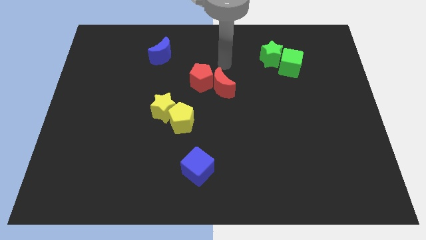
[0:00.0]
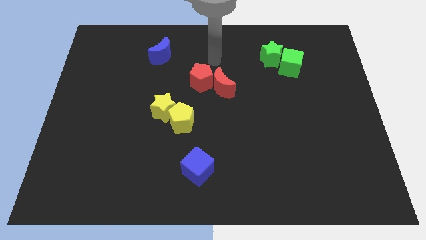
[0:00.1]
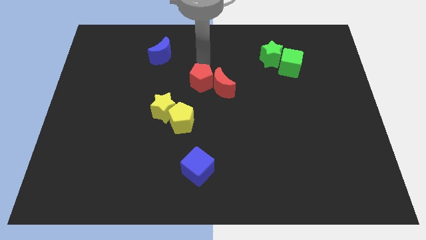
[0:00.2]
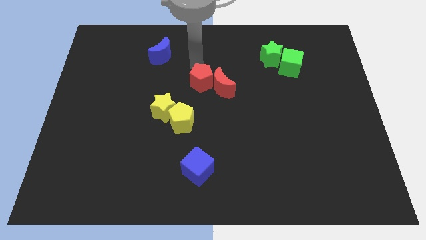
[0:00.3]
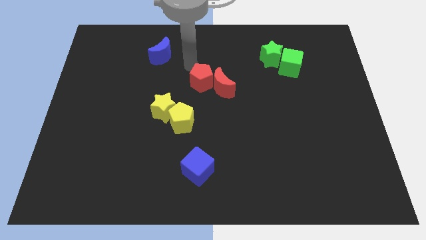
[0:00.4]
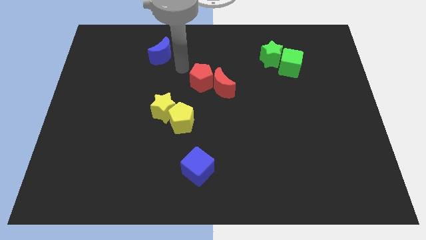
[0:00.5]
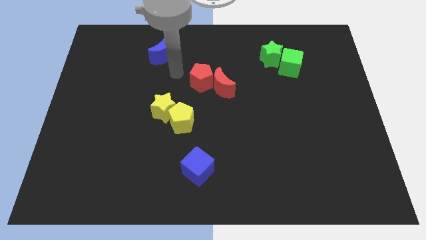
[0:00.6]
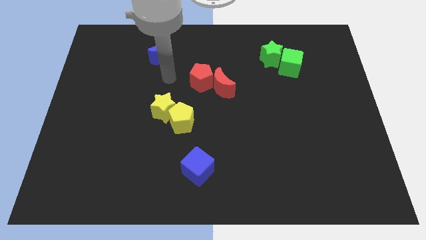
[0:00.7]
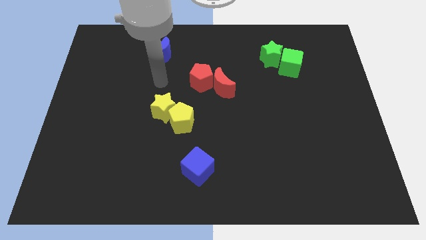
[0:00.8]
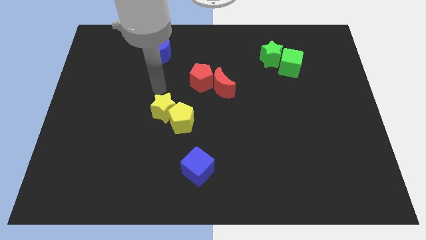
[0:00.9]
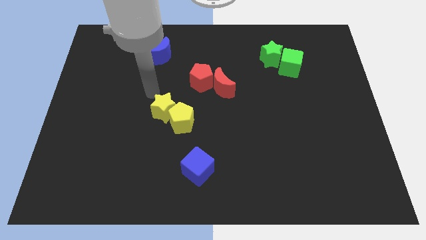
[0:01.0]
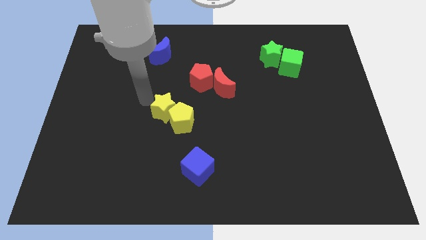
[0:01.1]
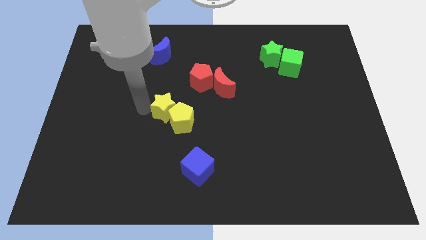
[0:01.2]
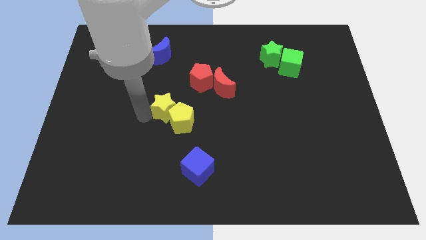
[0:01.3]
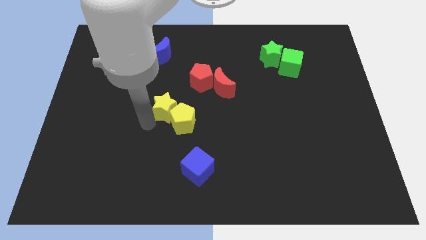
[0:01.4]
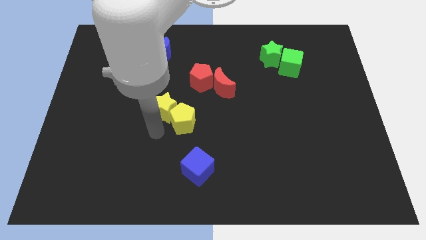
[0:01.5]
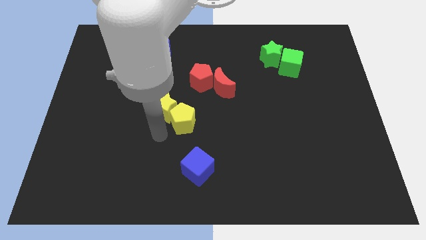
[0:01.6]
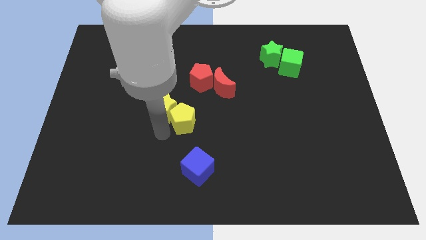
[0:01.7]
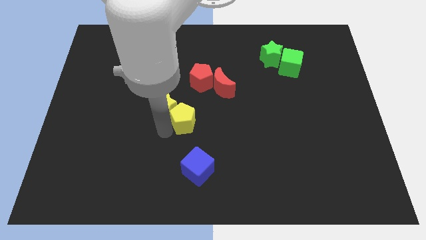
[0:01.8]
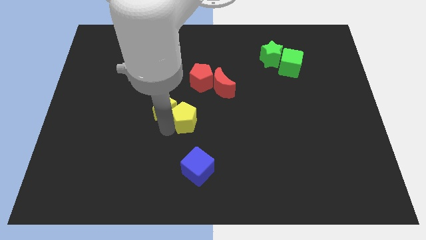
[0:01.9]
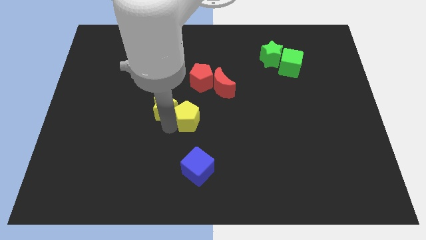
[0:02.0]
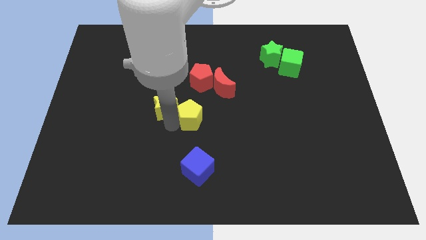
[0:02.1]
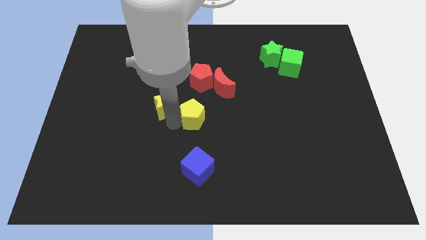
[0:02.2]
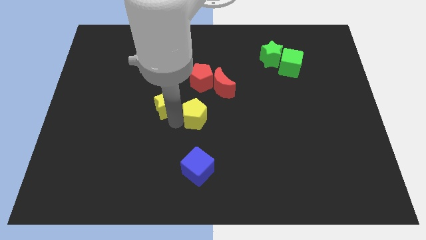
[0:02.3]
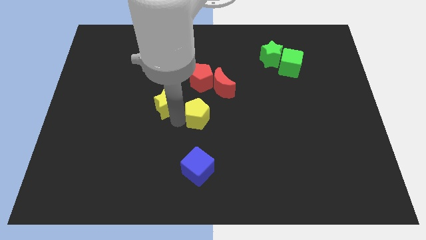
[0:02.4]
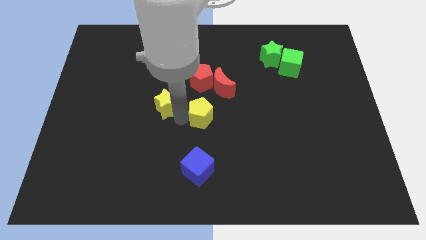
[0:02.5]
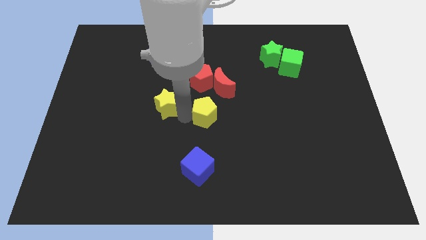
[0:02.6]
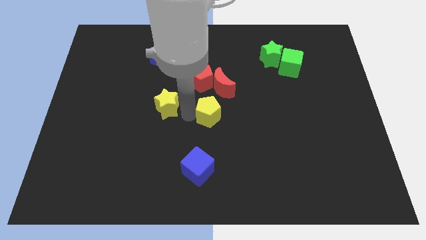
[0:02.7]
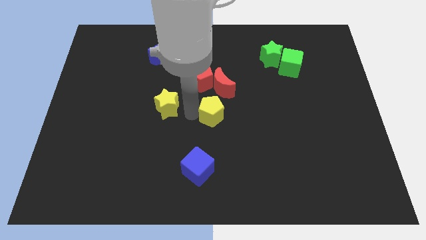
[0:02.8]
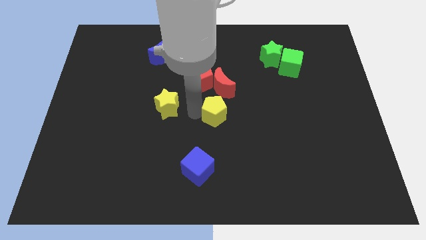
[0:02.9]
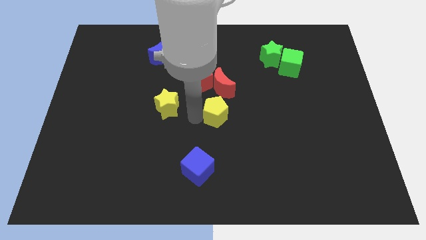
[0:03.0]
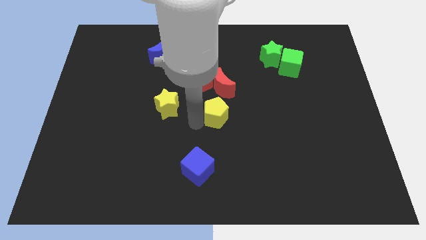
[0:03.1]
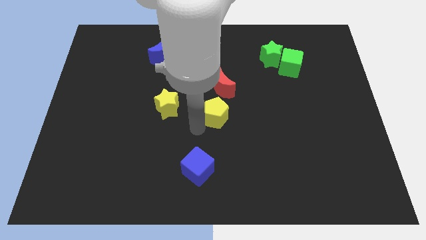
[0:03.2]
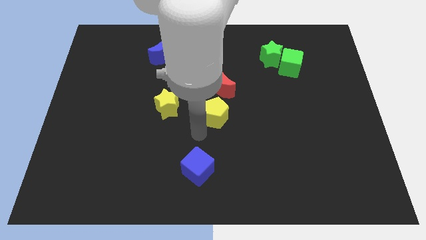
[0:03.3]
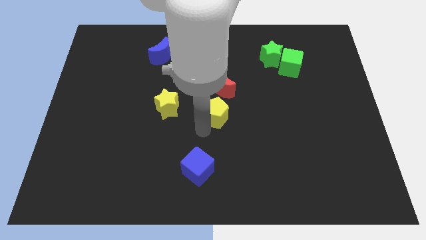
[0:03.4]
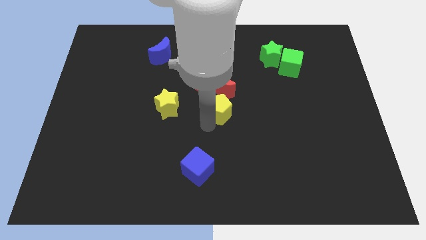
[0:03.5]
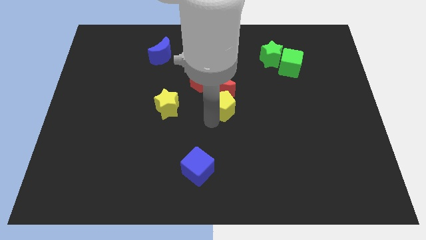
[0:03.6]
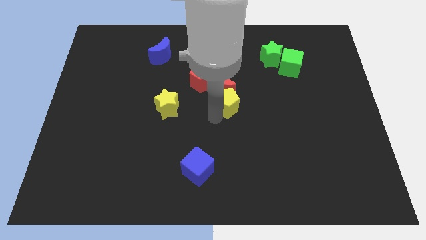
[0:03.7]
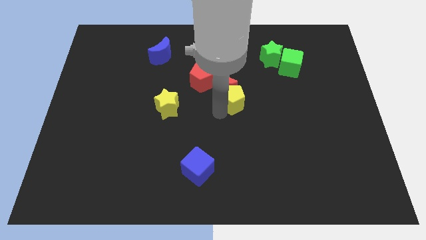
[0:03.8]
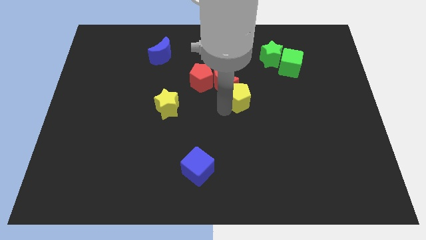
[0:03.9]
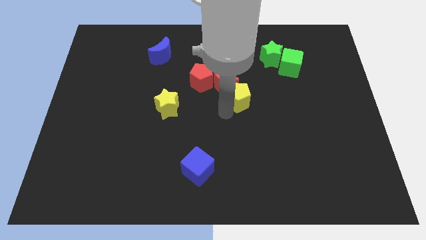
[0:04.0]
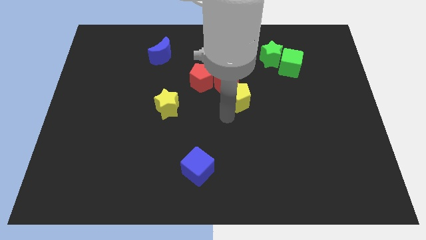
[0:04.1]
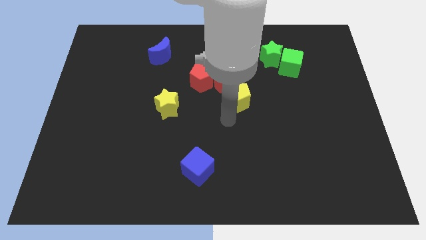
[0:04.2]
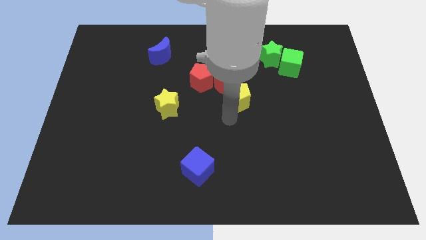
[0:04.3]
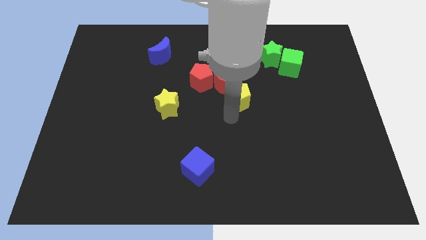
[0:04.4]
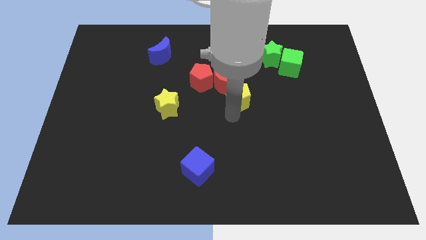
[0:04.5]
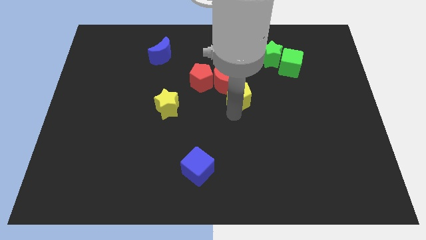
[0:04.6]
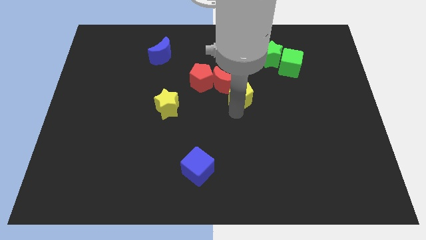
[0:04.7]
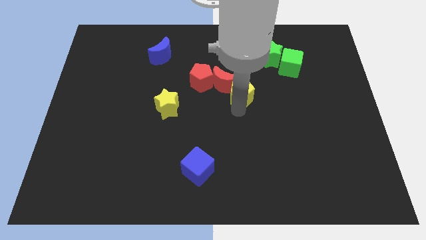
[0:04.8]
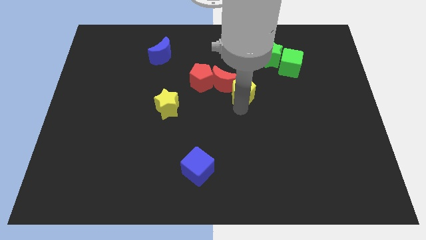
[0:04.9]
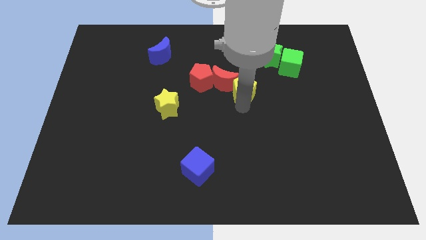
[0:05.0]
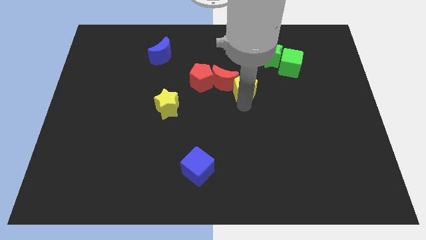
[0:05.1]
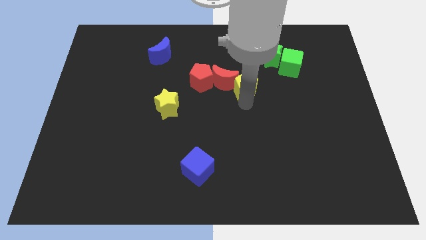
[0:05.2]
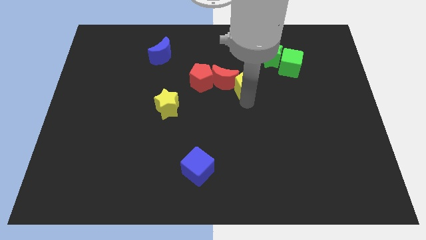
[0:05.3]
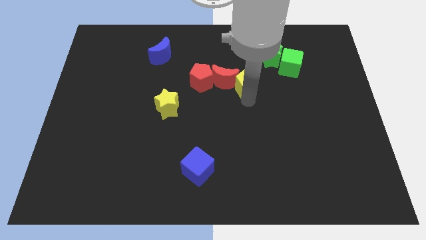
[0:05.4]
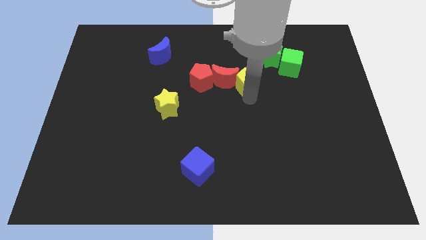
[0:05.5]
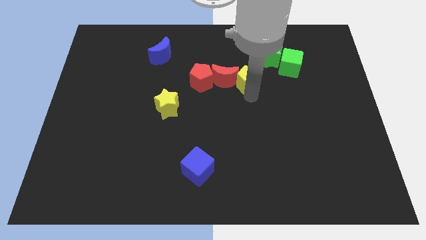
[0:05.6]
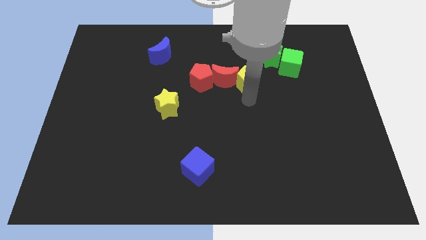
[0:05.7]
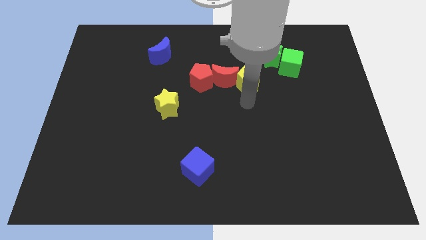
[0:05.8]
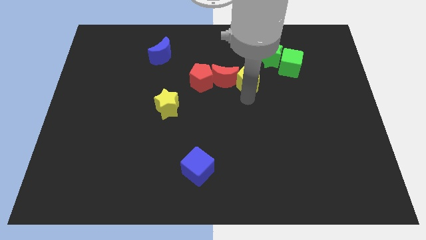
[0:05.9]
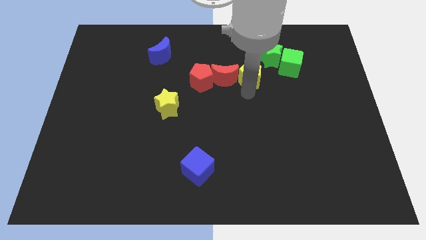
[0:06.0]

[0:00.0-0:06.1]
put the yellow pentagon to the left side of the green cube

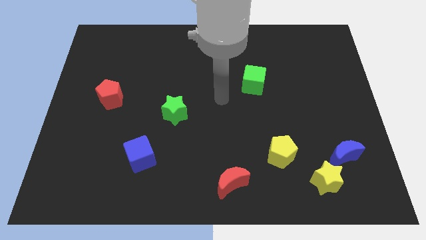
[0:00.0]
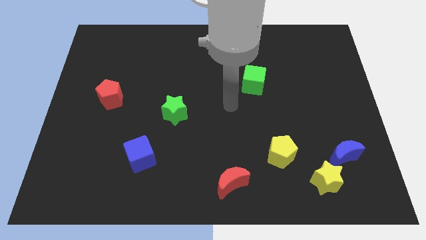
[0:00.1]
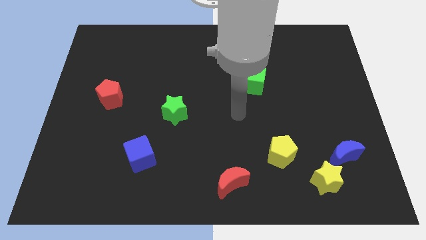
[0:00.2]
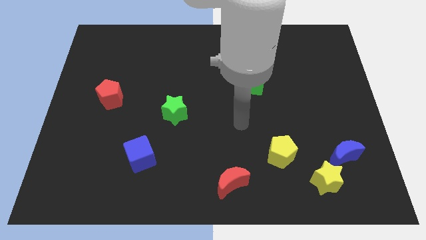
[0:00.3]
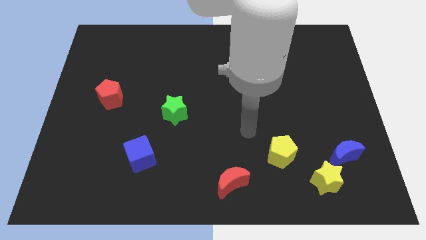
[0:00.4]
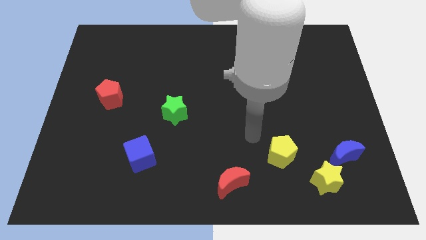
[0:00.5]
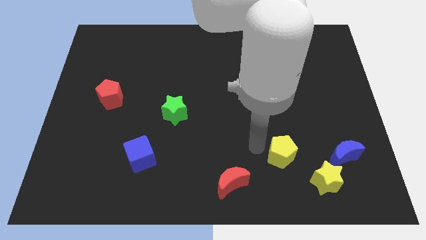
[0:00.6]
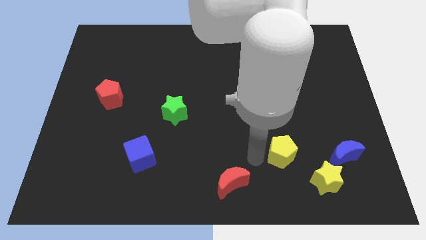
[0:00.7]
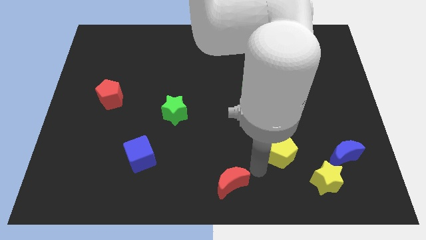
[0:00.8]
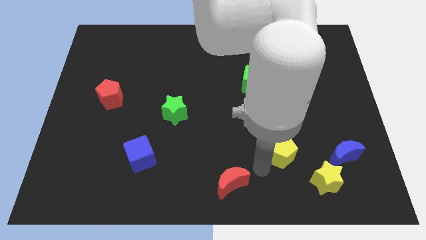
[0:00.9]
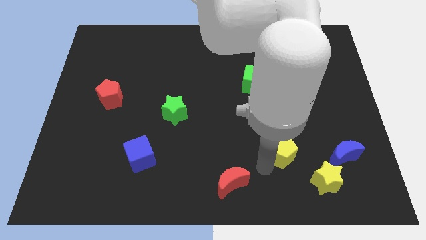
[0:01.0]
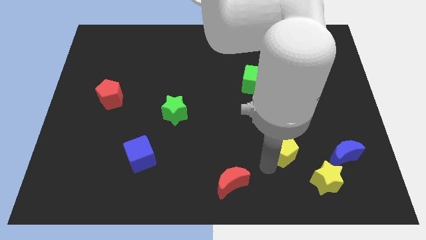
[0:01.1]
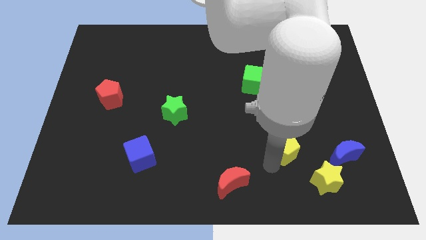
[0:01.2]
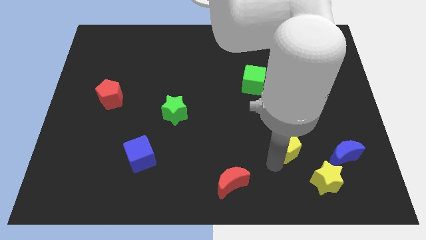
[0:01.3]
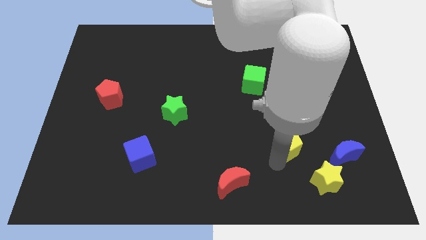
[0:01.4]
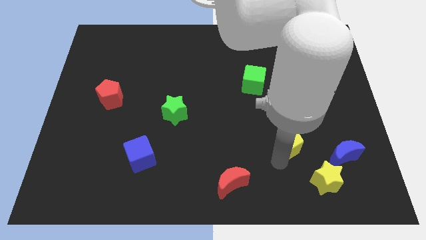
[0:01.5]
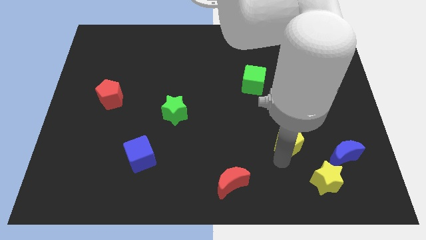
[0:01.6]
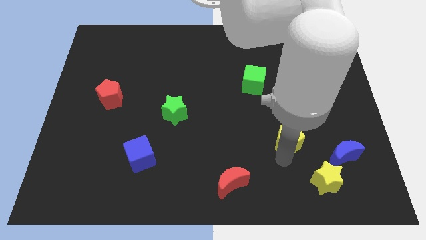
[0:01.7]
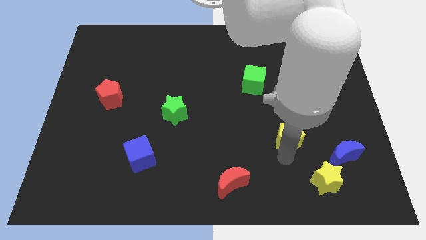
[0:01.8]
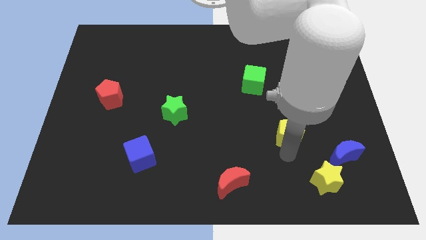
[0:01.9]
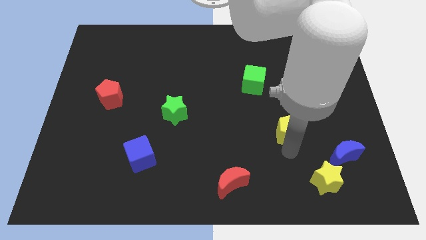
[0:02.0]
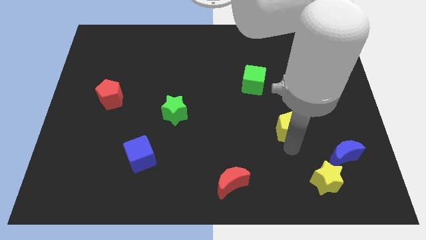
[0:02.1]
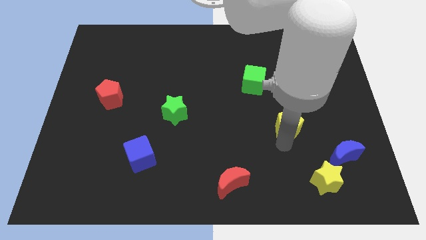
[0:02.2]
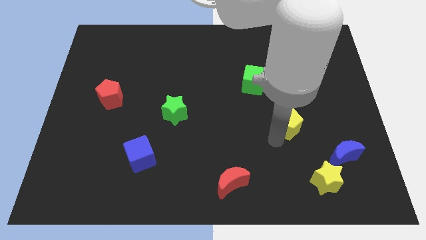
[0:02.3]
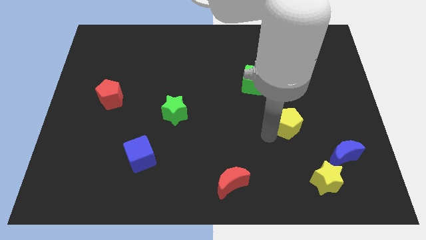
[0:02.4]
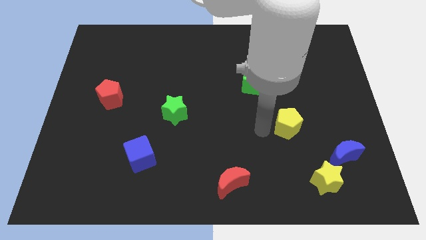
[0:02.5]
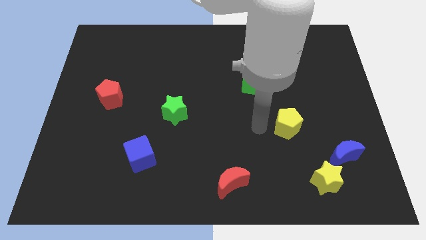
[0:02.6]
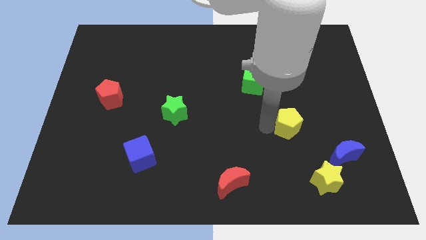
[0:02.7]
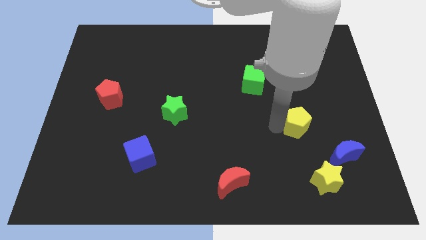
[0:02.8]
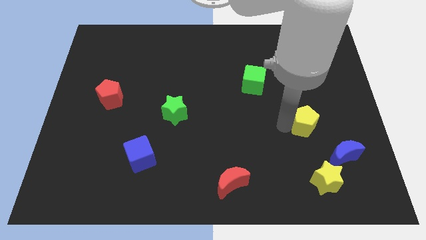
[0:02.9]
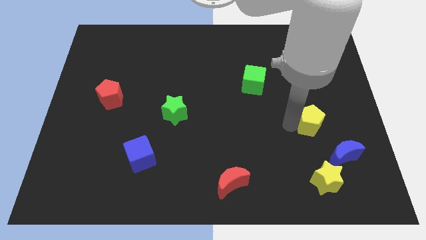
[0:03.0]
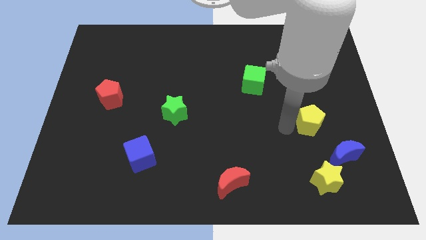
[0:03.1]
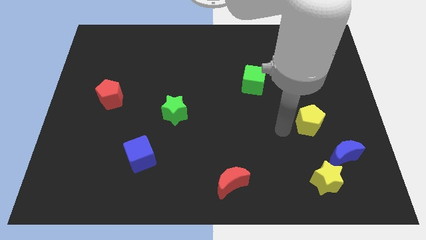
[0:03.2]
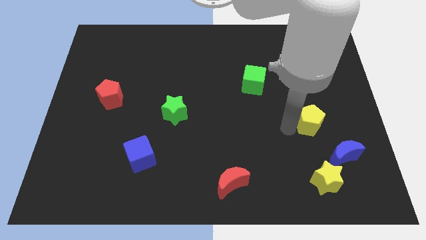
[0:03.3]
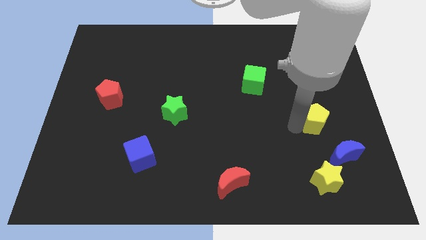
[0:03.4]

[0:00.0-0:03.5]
push the yellow pentagon to the top of the blue moon
